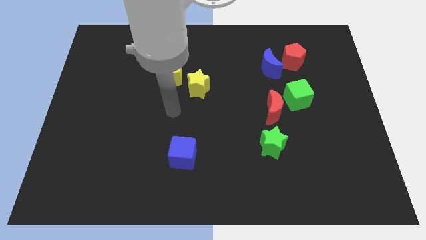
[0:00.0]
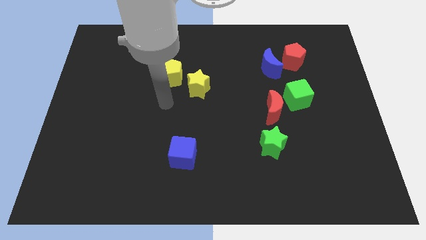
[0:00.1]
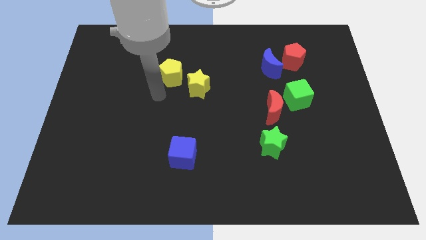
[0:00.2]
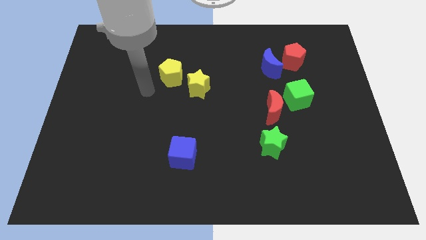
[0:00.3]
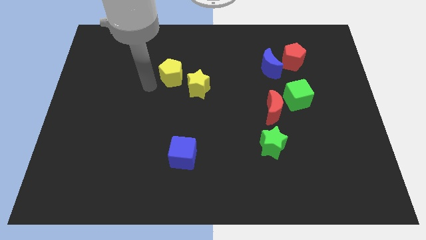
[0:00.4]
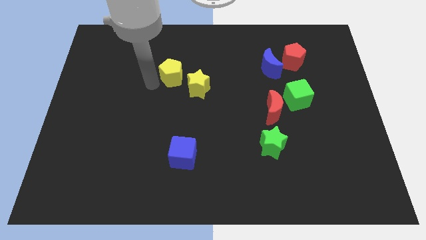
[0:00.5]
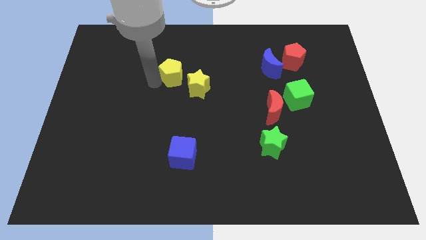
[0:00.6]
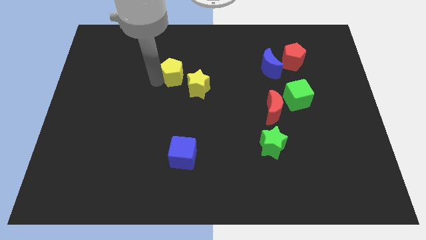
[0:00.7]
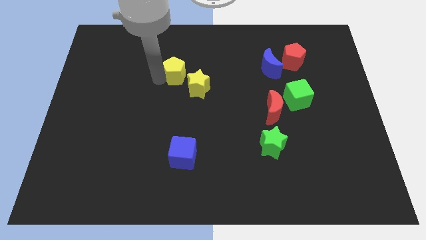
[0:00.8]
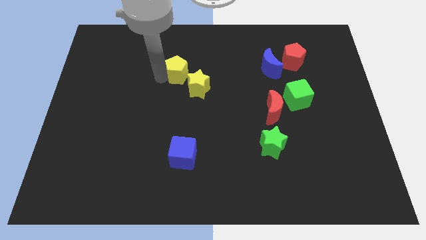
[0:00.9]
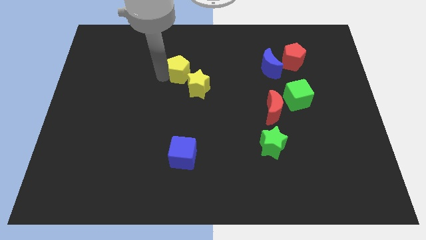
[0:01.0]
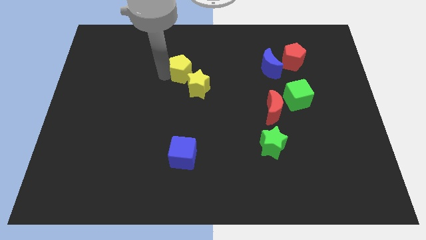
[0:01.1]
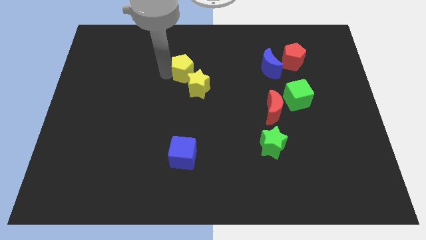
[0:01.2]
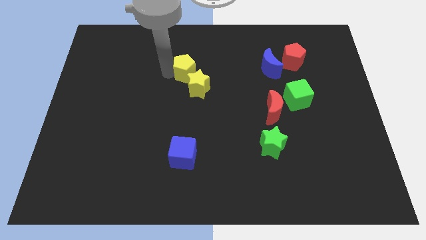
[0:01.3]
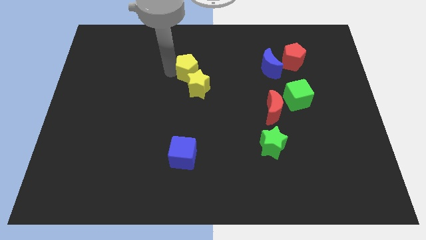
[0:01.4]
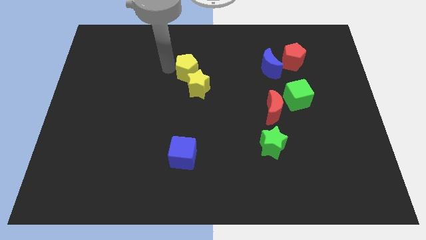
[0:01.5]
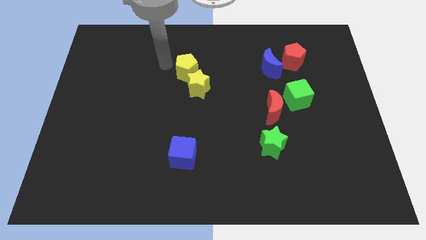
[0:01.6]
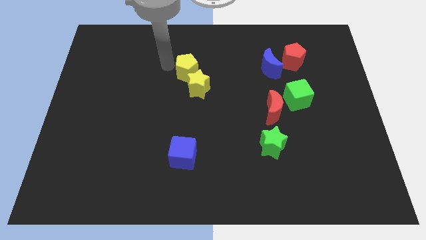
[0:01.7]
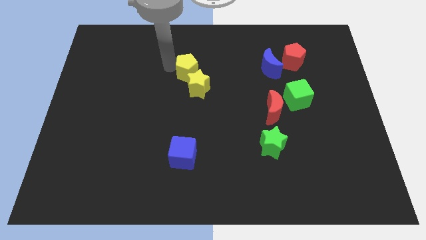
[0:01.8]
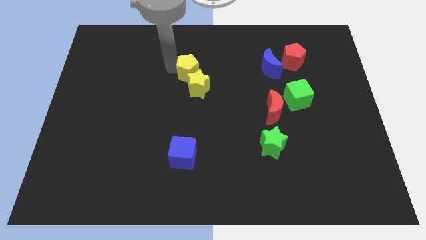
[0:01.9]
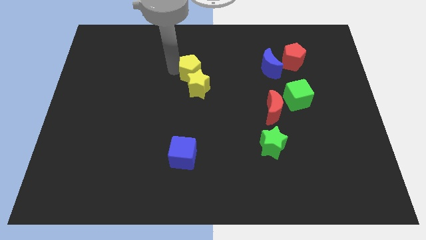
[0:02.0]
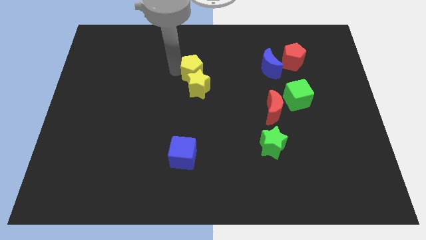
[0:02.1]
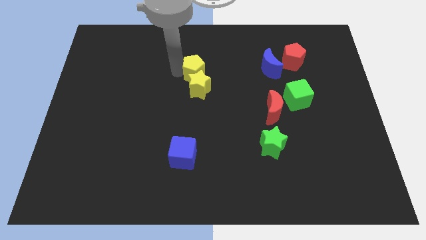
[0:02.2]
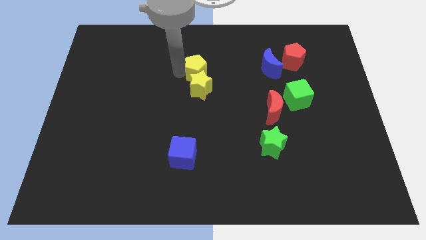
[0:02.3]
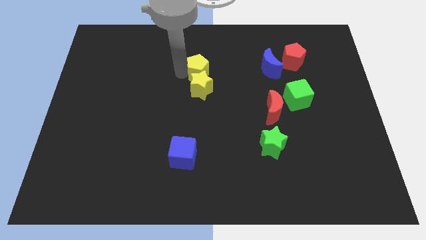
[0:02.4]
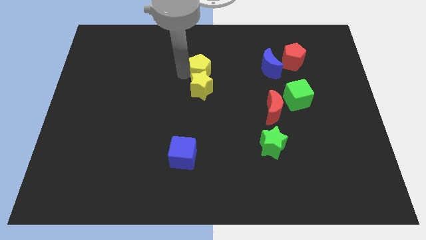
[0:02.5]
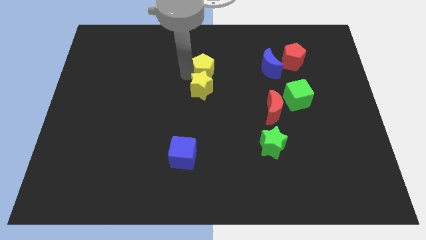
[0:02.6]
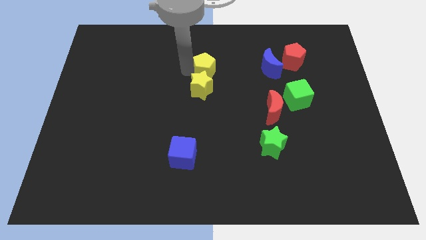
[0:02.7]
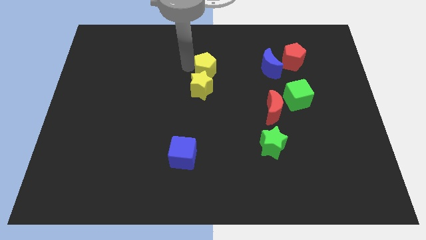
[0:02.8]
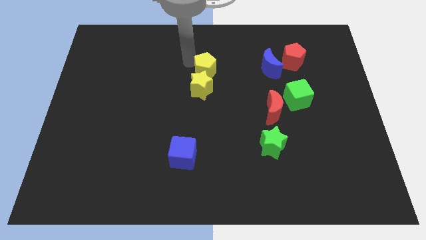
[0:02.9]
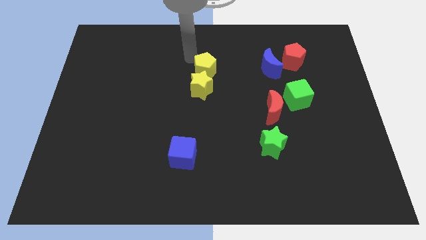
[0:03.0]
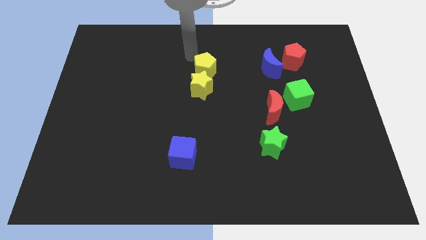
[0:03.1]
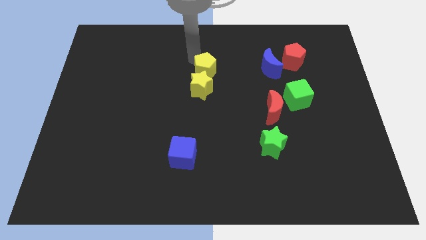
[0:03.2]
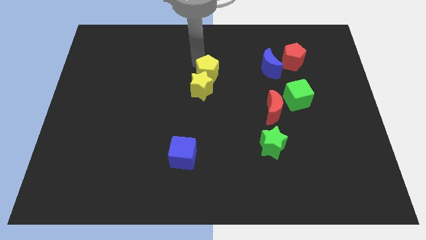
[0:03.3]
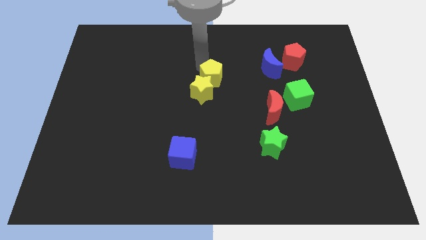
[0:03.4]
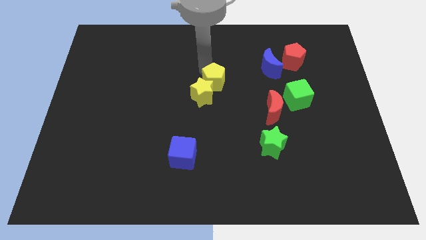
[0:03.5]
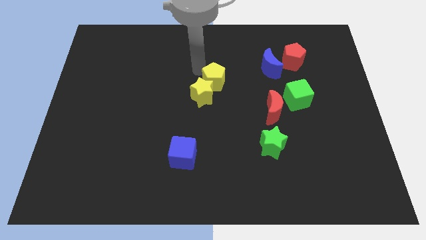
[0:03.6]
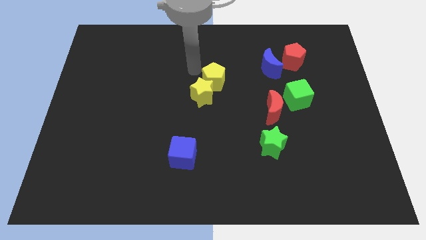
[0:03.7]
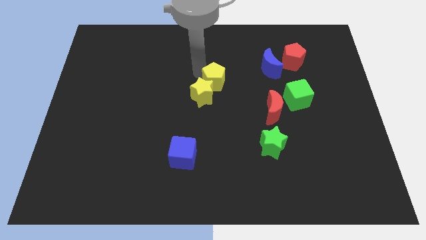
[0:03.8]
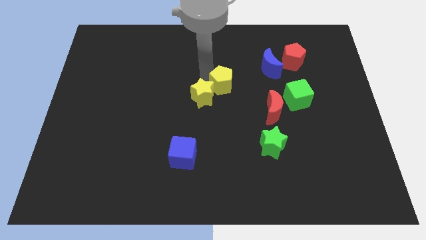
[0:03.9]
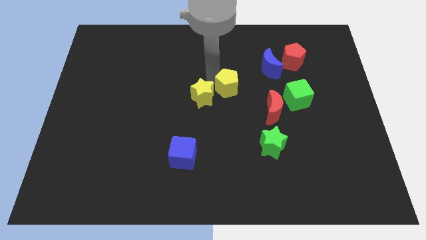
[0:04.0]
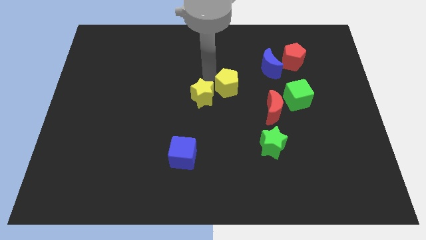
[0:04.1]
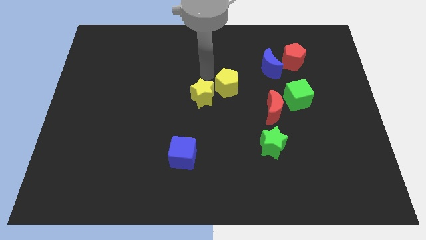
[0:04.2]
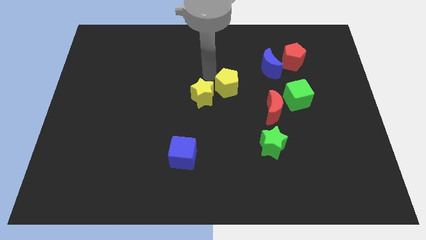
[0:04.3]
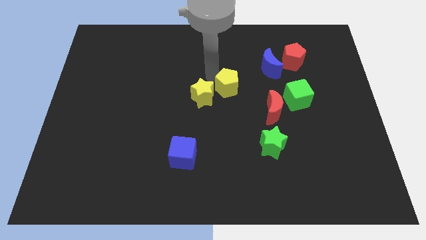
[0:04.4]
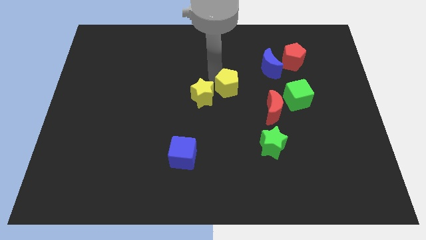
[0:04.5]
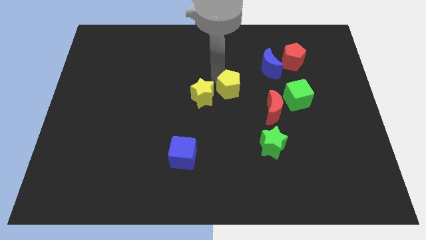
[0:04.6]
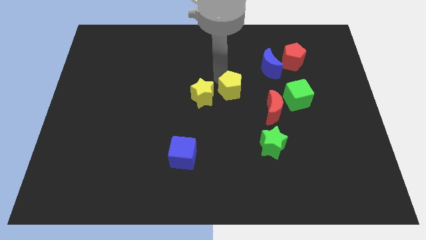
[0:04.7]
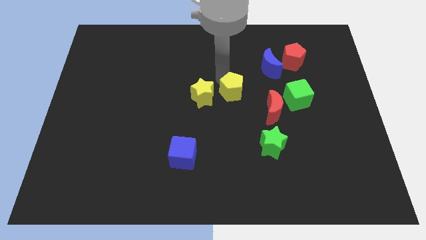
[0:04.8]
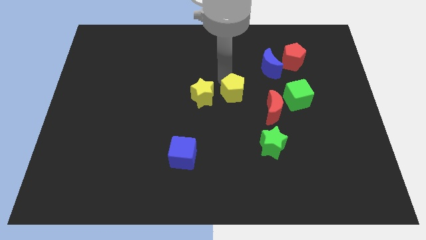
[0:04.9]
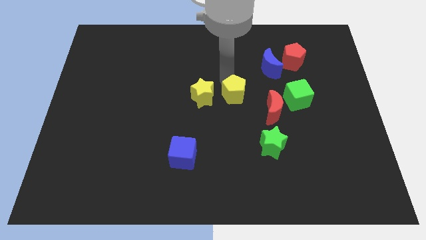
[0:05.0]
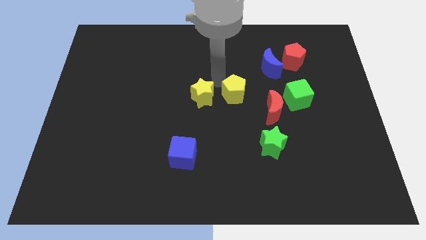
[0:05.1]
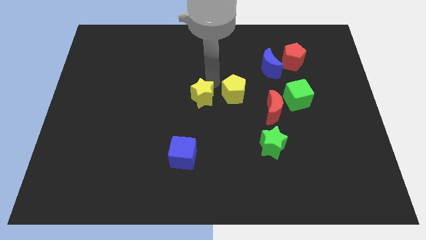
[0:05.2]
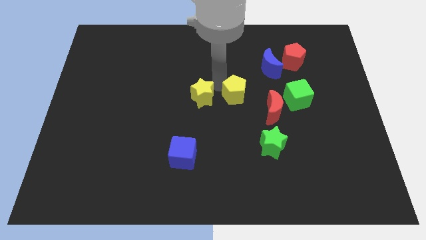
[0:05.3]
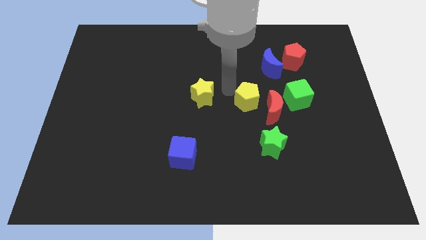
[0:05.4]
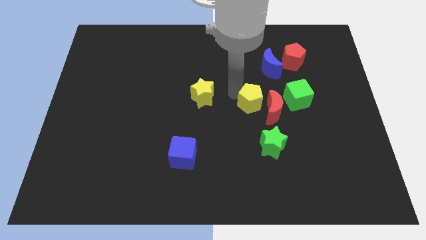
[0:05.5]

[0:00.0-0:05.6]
push the yellow pentagon towards the red moon

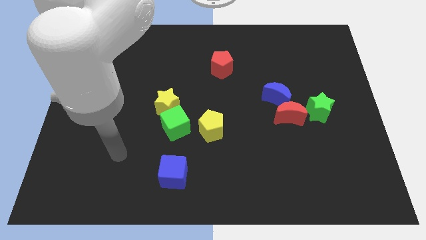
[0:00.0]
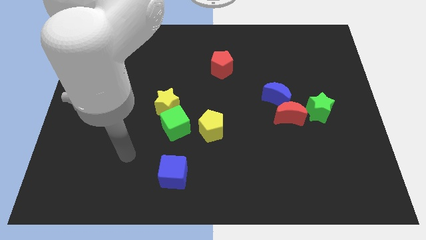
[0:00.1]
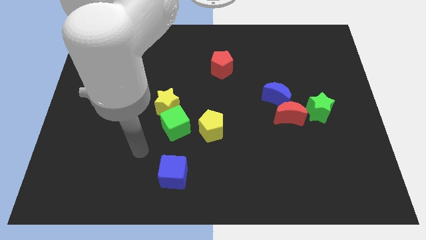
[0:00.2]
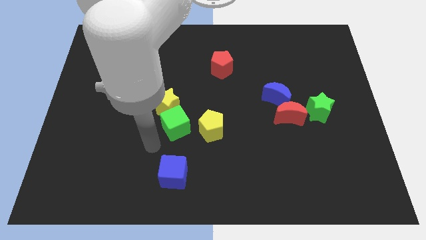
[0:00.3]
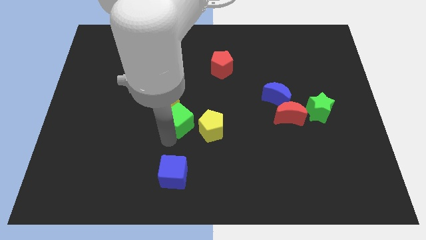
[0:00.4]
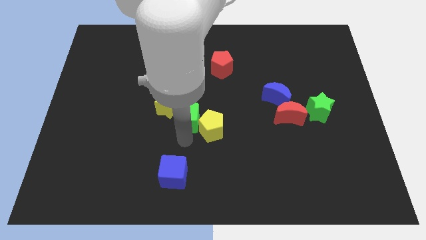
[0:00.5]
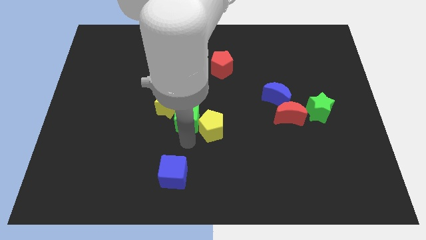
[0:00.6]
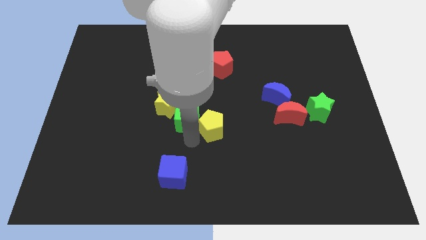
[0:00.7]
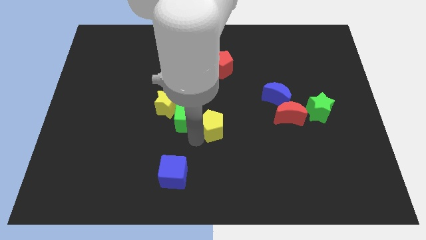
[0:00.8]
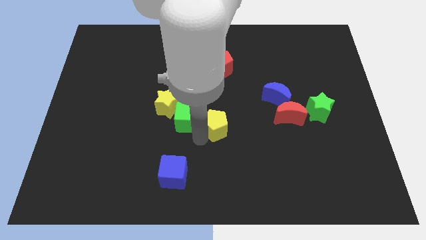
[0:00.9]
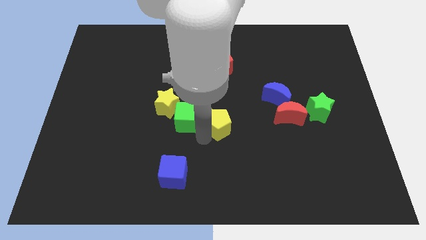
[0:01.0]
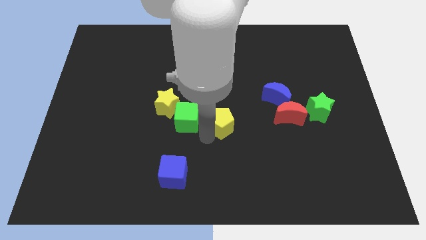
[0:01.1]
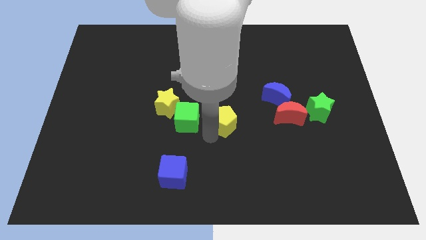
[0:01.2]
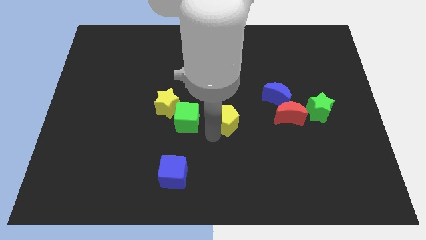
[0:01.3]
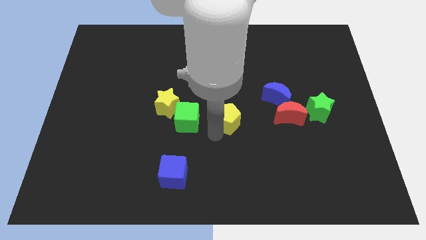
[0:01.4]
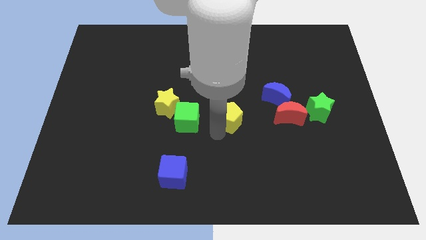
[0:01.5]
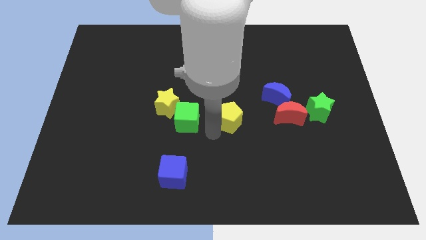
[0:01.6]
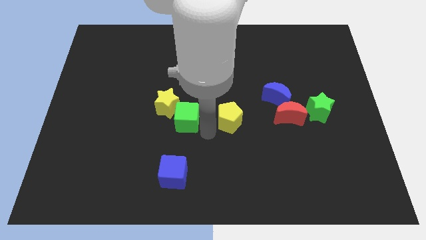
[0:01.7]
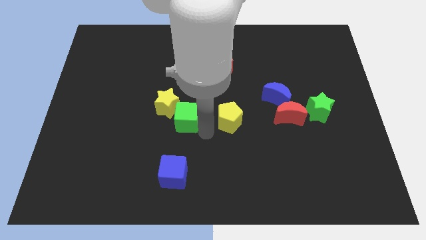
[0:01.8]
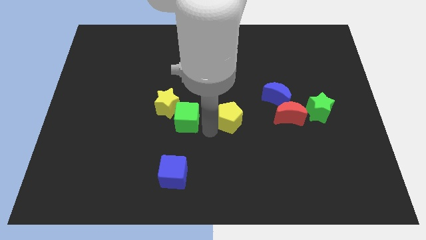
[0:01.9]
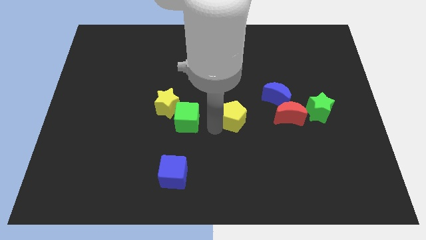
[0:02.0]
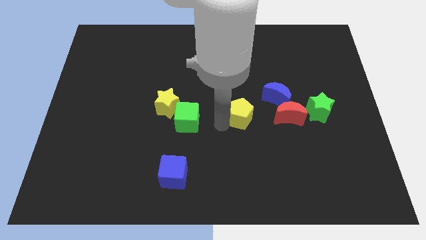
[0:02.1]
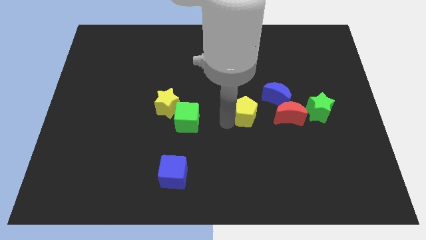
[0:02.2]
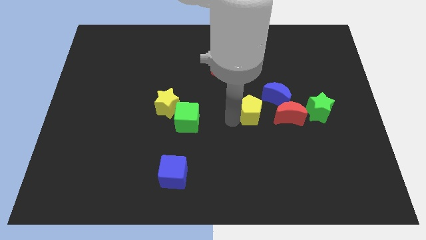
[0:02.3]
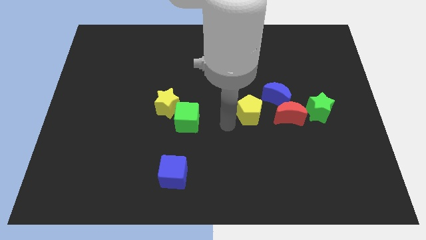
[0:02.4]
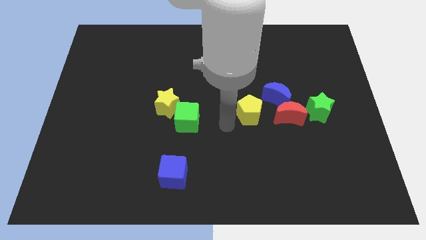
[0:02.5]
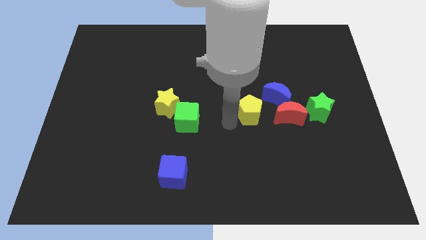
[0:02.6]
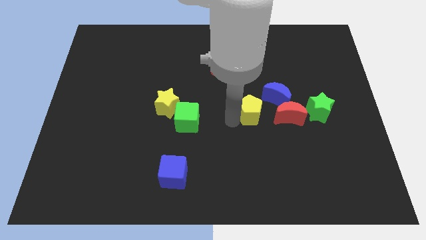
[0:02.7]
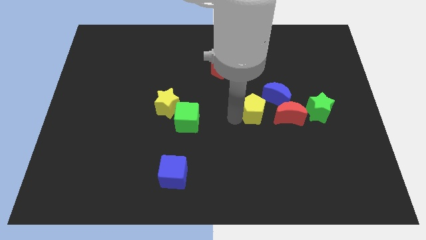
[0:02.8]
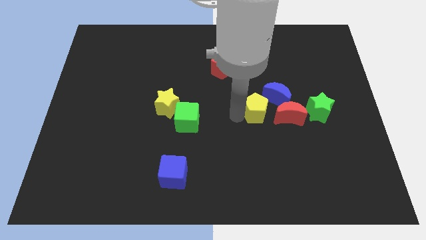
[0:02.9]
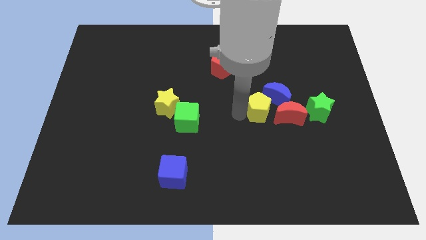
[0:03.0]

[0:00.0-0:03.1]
put the yellow pentagon close to the blue moon
